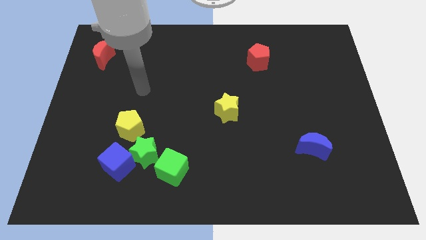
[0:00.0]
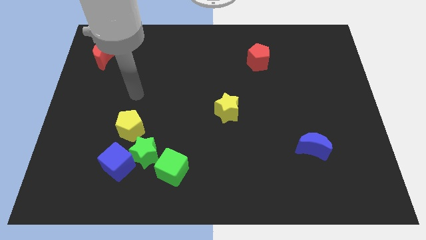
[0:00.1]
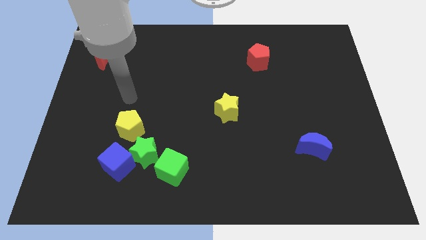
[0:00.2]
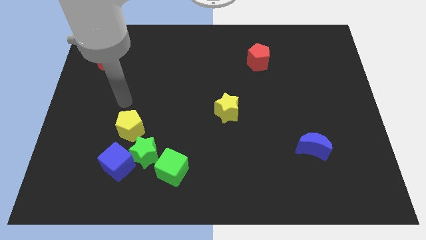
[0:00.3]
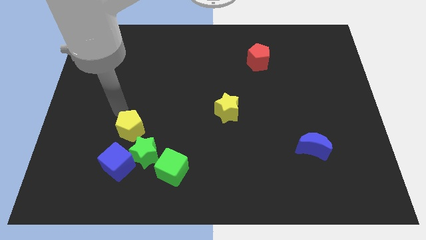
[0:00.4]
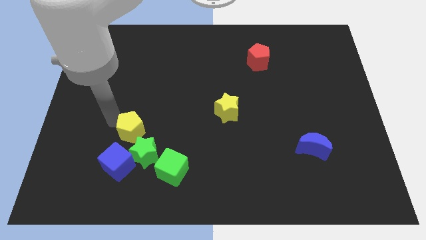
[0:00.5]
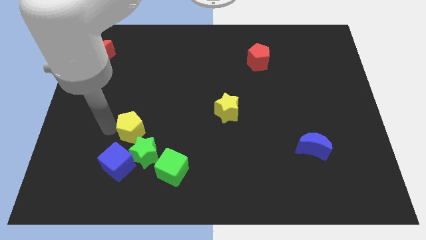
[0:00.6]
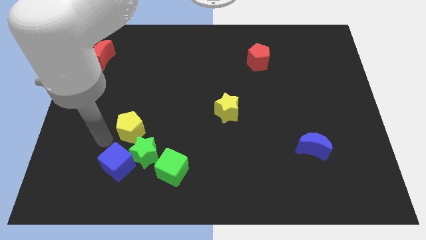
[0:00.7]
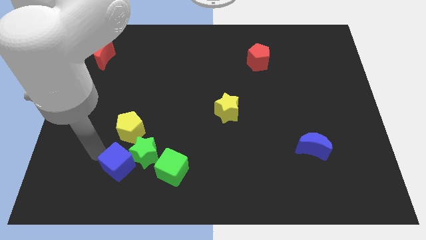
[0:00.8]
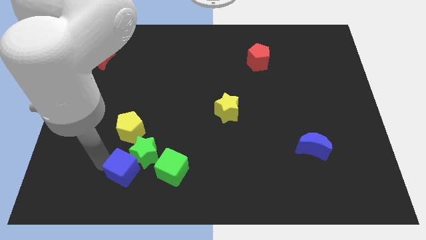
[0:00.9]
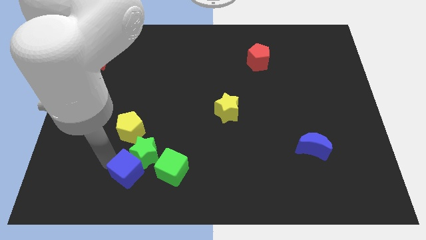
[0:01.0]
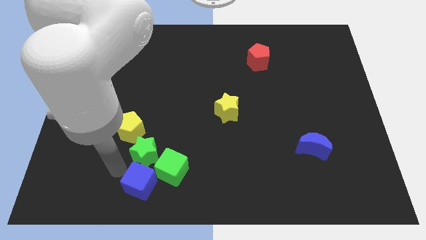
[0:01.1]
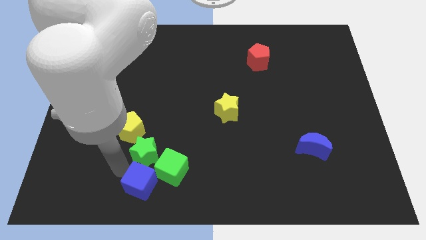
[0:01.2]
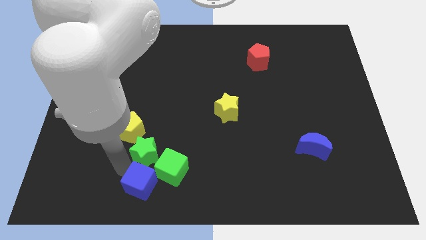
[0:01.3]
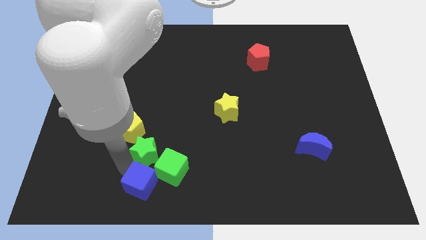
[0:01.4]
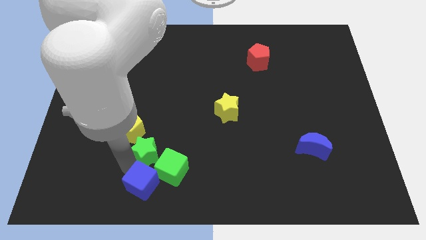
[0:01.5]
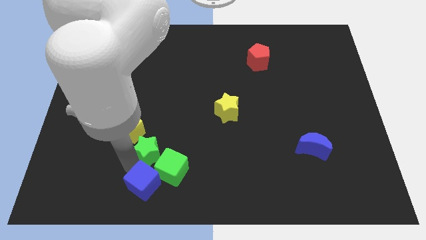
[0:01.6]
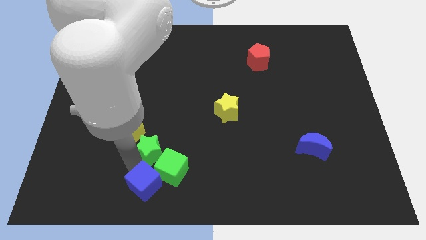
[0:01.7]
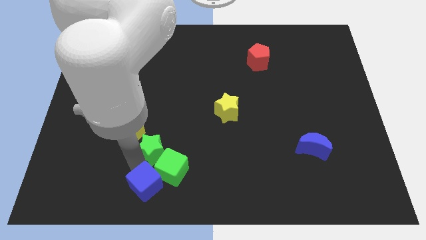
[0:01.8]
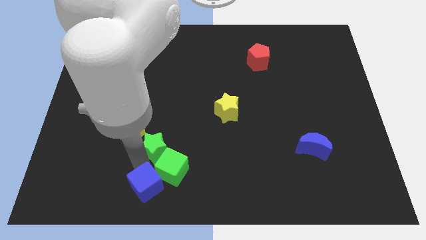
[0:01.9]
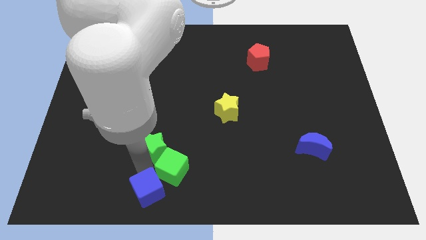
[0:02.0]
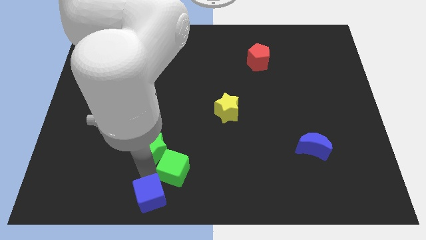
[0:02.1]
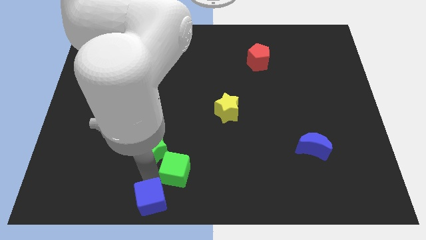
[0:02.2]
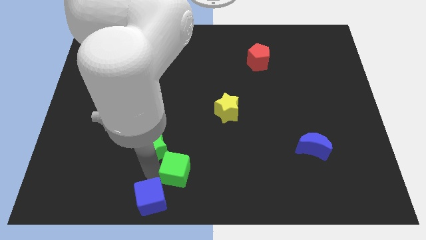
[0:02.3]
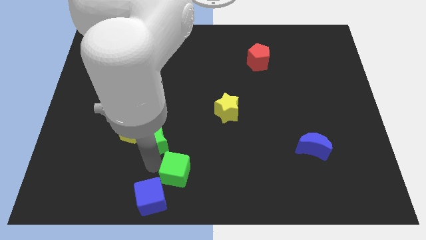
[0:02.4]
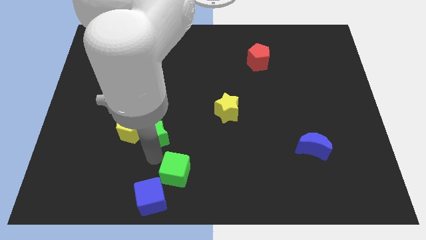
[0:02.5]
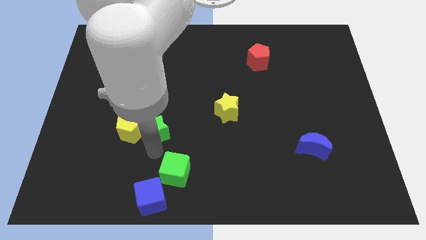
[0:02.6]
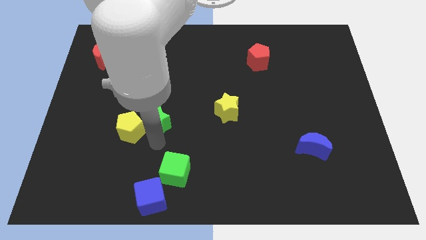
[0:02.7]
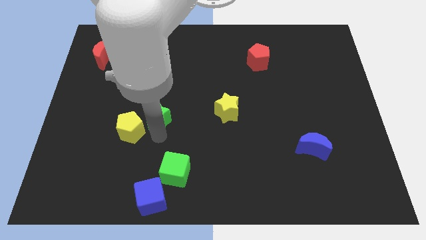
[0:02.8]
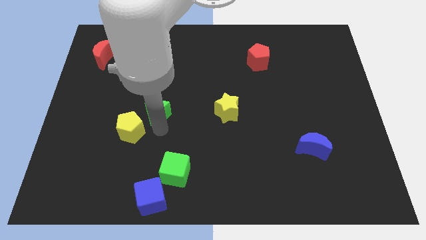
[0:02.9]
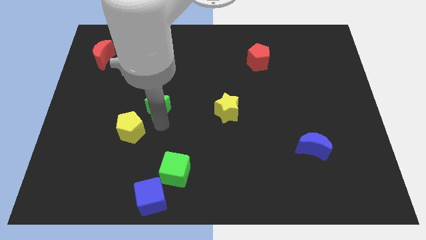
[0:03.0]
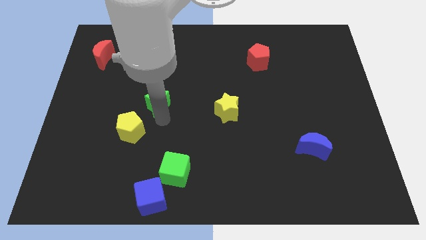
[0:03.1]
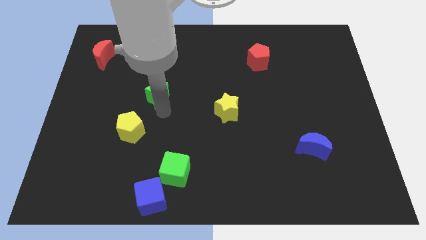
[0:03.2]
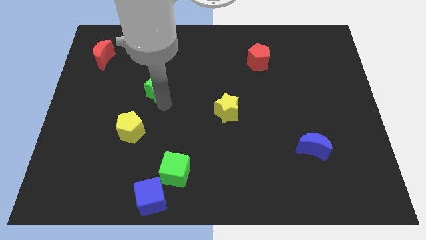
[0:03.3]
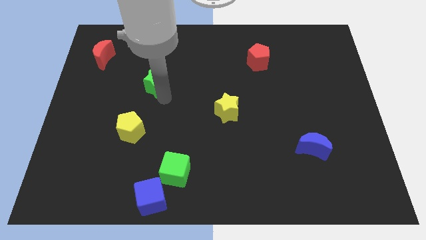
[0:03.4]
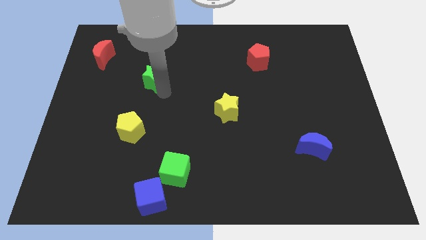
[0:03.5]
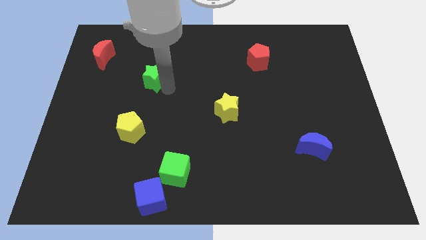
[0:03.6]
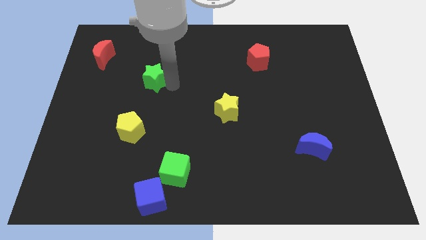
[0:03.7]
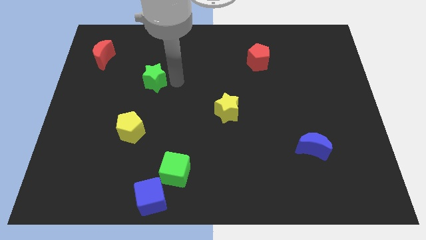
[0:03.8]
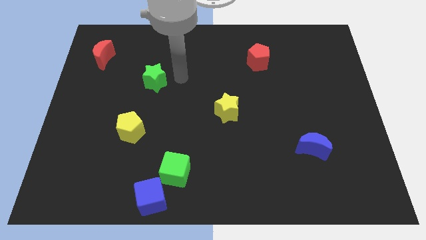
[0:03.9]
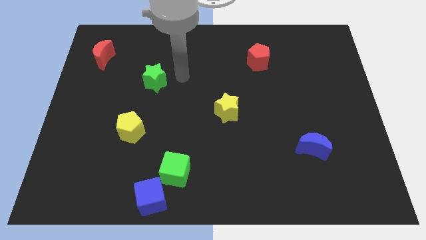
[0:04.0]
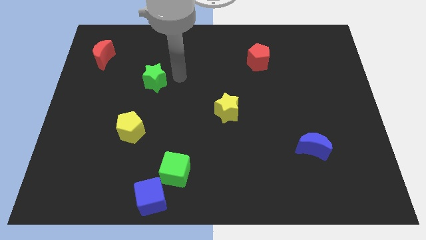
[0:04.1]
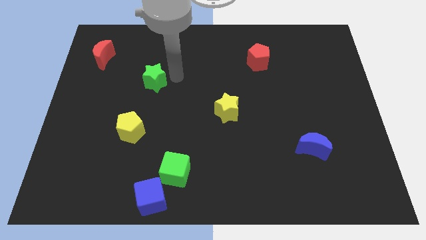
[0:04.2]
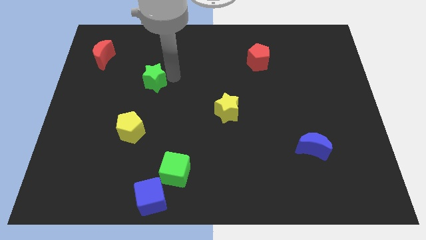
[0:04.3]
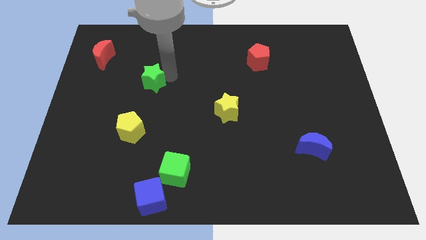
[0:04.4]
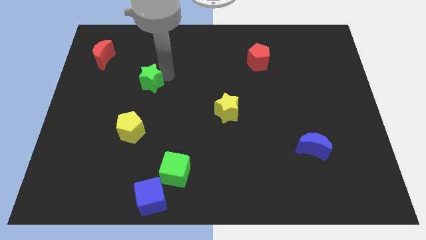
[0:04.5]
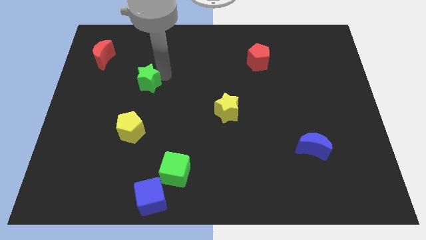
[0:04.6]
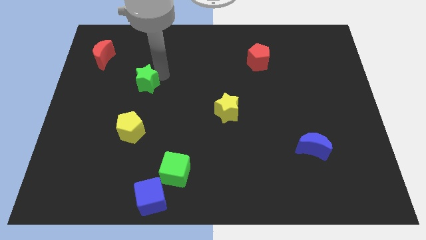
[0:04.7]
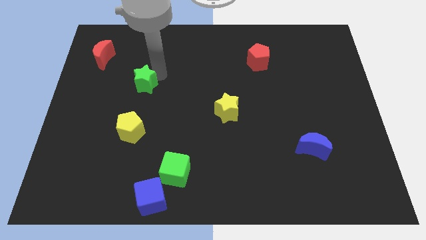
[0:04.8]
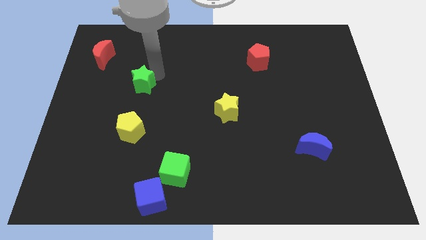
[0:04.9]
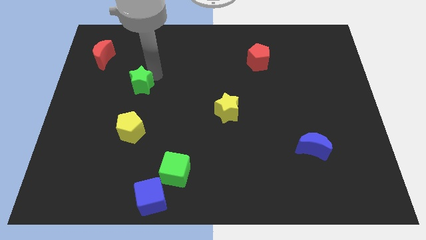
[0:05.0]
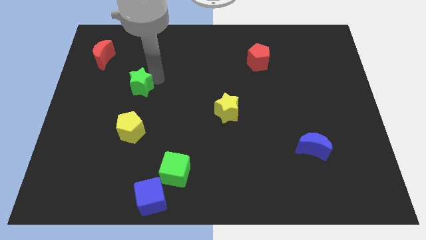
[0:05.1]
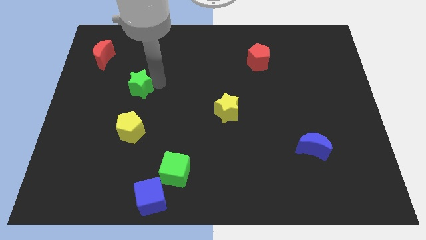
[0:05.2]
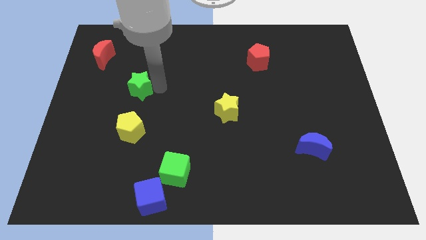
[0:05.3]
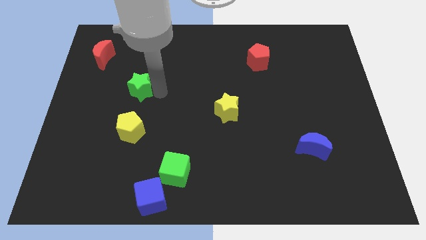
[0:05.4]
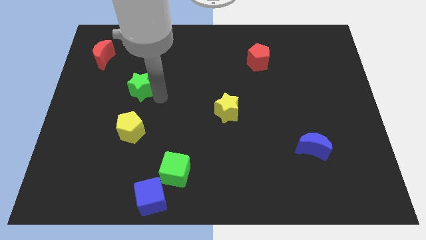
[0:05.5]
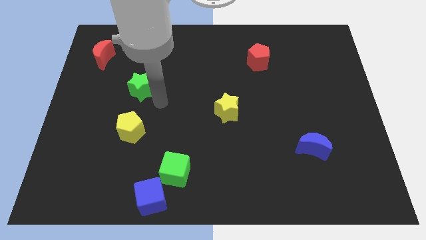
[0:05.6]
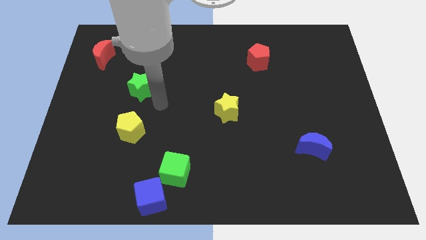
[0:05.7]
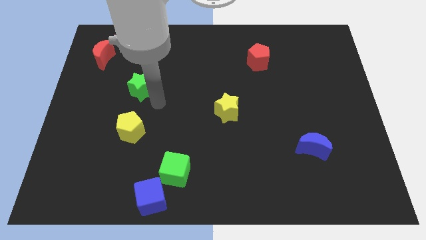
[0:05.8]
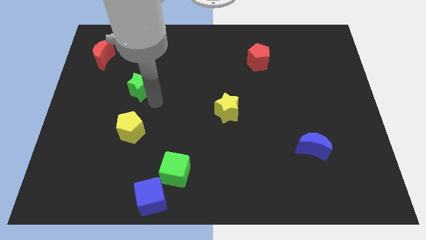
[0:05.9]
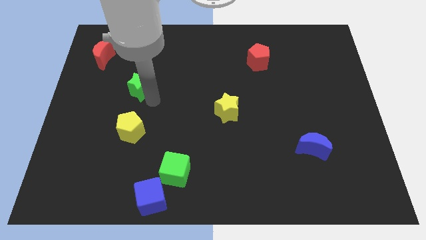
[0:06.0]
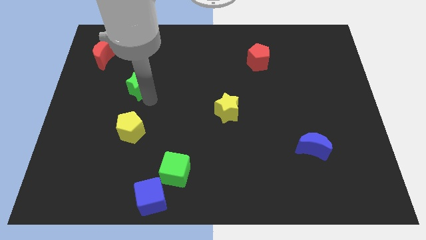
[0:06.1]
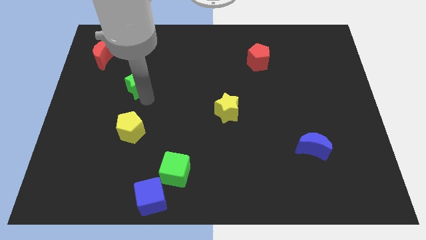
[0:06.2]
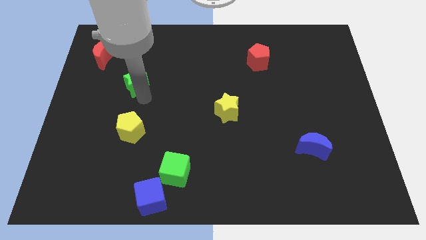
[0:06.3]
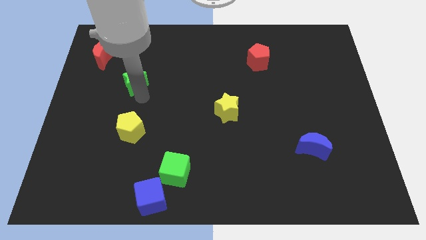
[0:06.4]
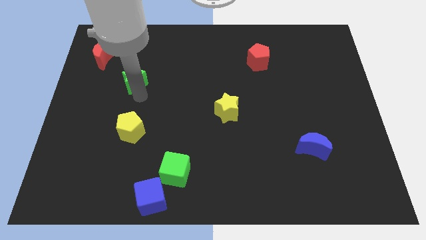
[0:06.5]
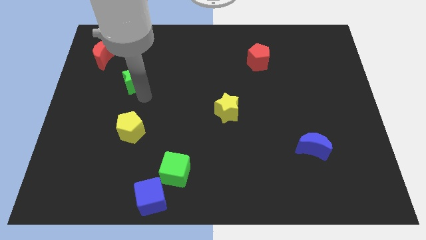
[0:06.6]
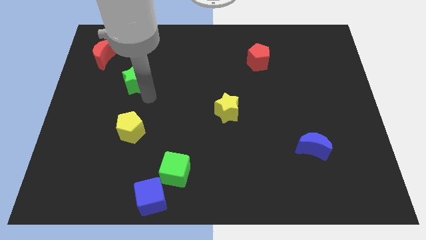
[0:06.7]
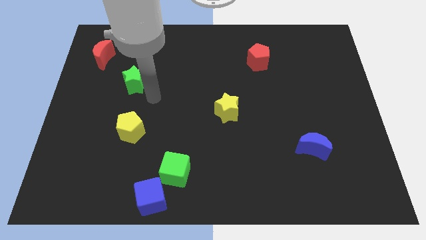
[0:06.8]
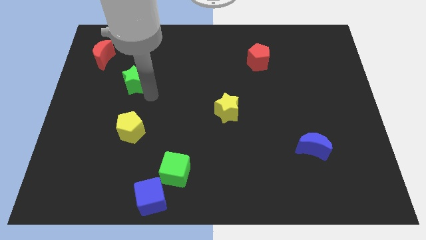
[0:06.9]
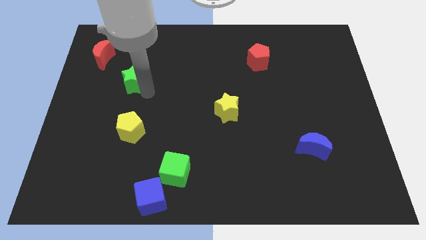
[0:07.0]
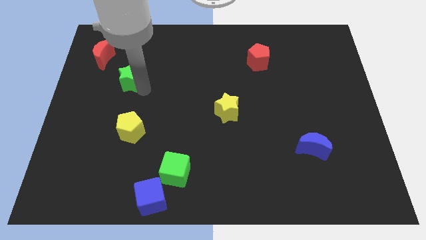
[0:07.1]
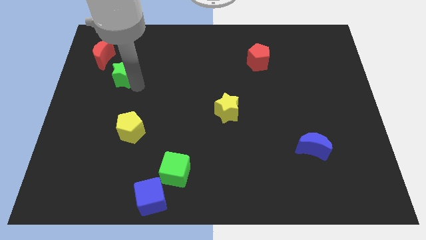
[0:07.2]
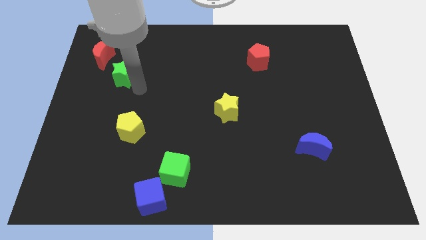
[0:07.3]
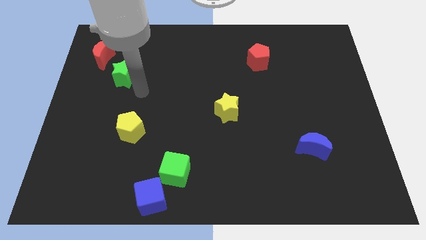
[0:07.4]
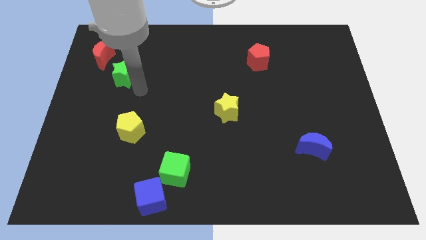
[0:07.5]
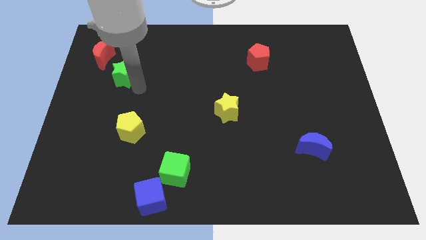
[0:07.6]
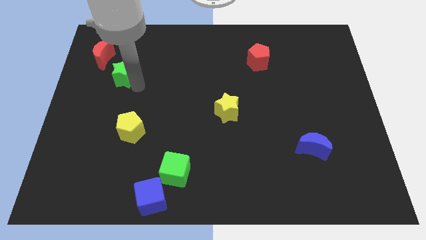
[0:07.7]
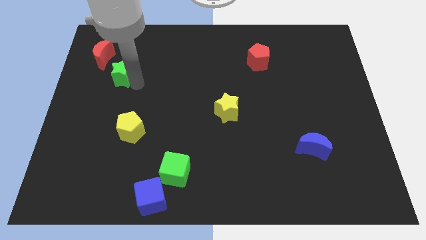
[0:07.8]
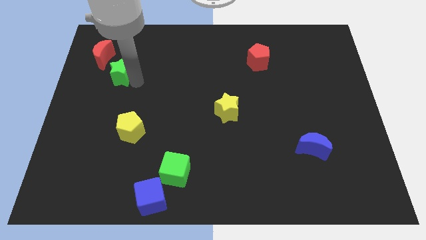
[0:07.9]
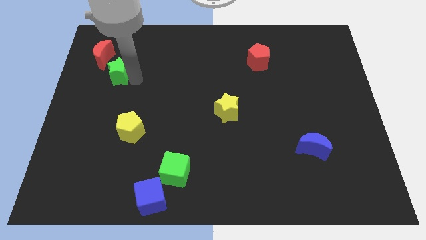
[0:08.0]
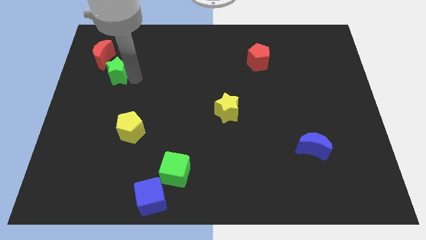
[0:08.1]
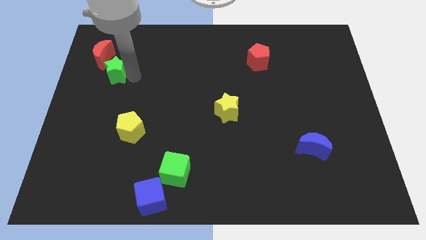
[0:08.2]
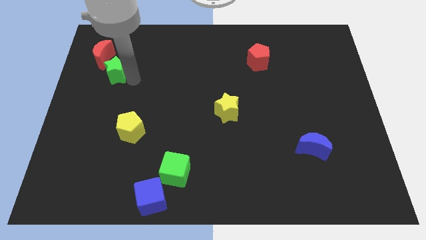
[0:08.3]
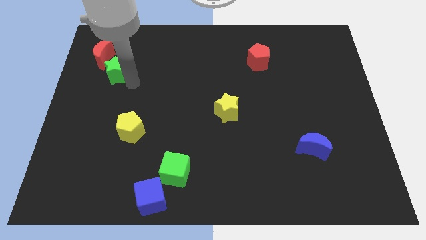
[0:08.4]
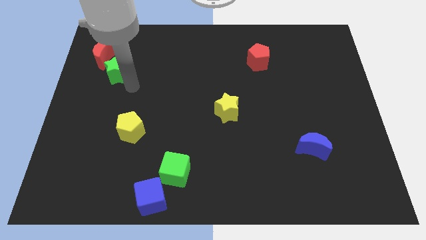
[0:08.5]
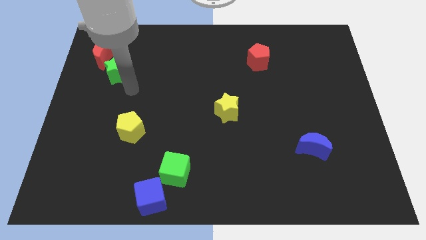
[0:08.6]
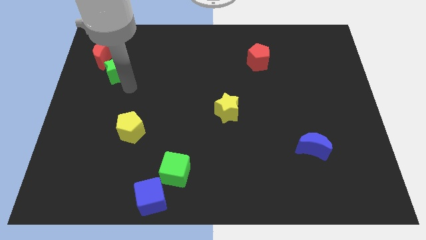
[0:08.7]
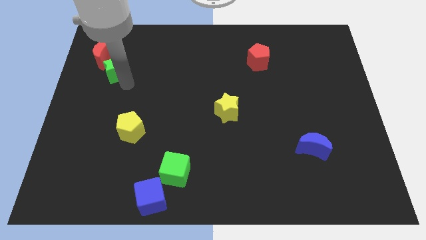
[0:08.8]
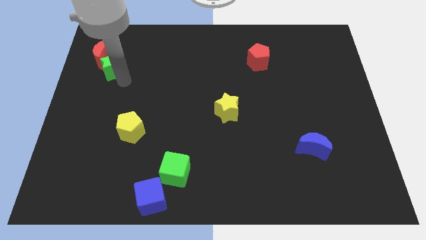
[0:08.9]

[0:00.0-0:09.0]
put the green star towards the red moon
